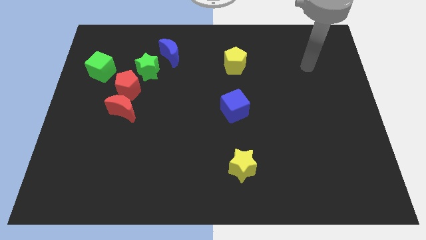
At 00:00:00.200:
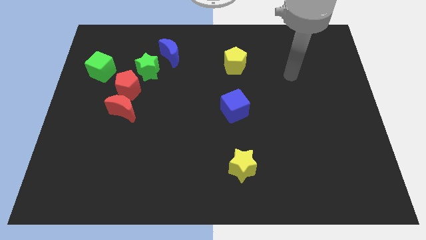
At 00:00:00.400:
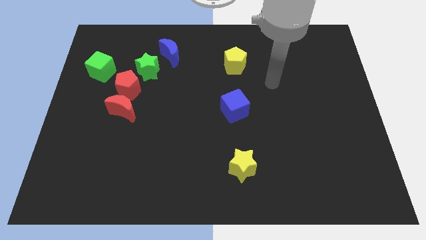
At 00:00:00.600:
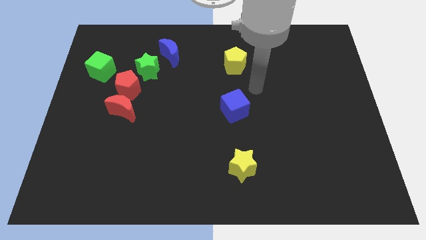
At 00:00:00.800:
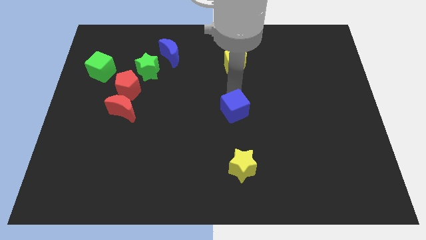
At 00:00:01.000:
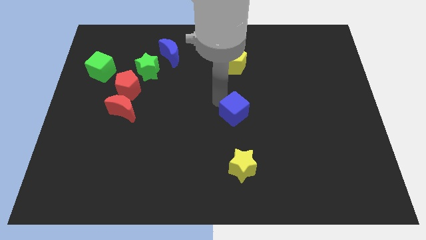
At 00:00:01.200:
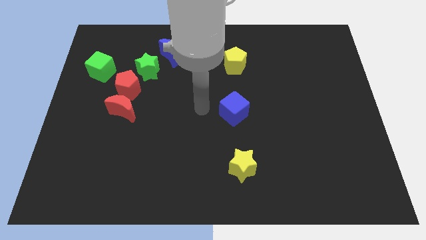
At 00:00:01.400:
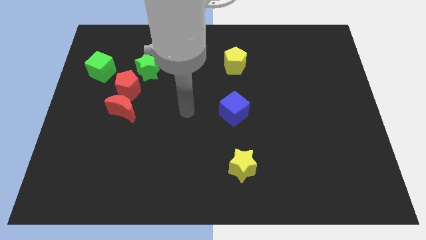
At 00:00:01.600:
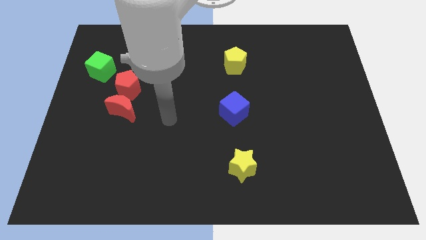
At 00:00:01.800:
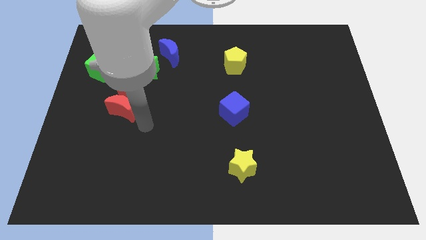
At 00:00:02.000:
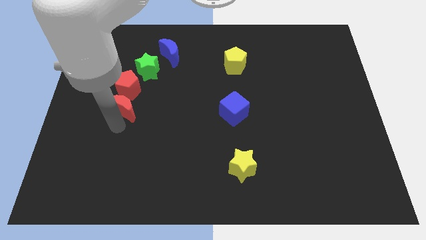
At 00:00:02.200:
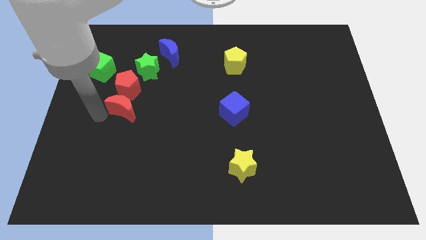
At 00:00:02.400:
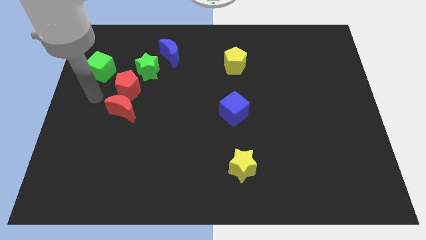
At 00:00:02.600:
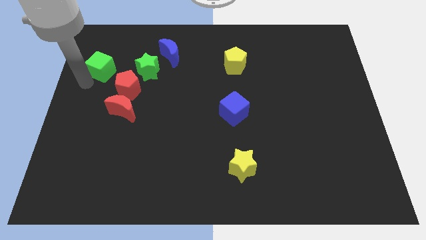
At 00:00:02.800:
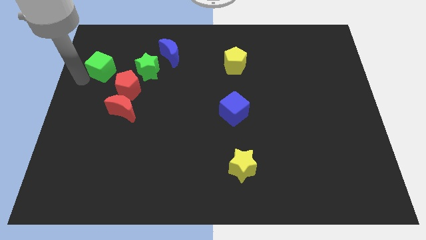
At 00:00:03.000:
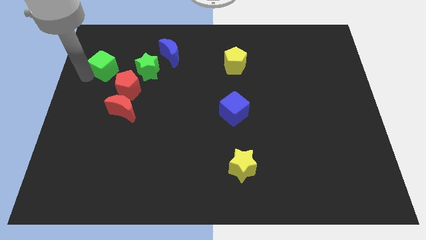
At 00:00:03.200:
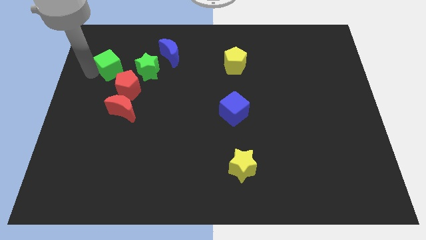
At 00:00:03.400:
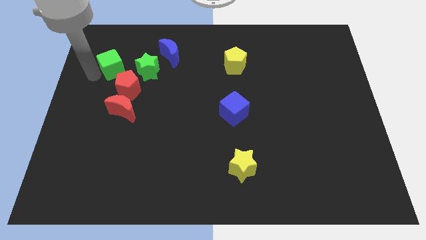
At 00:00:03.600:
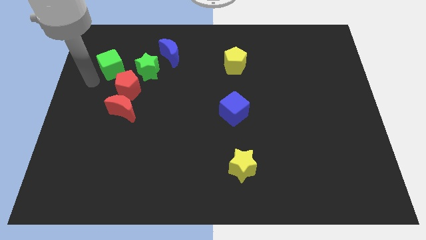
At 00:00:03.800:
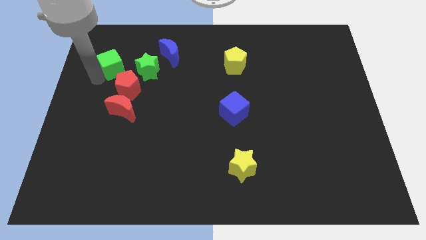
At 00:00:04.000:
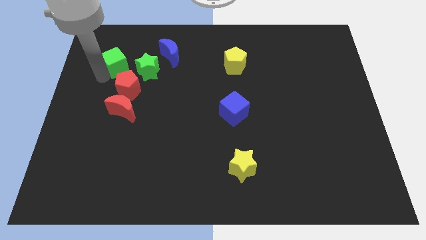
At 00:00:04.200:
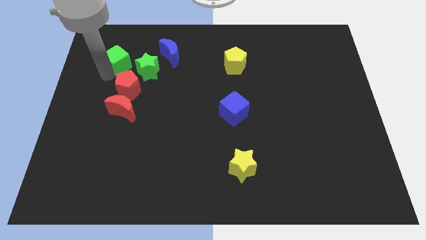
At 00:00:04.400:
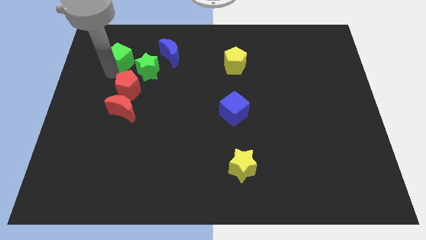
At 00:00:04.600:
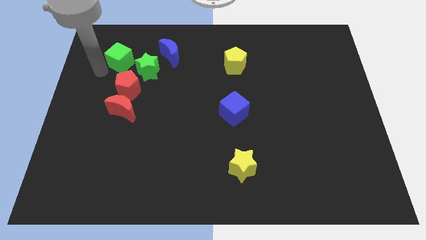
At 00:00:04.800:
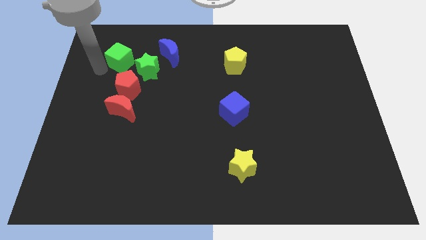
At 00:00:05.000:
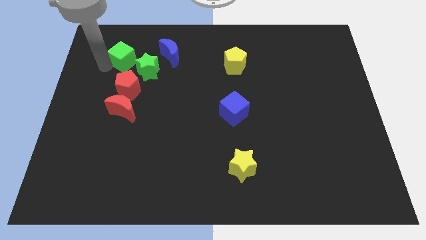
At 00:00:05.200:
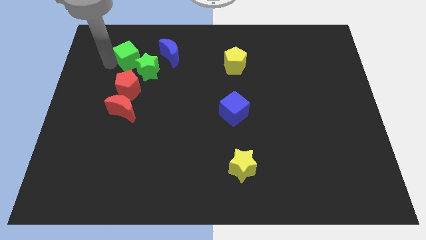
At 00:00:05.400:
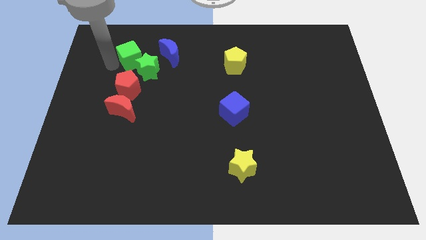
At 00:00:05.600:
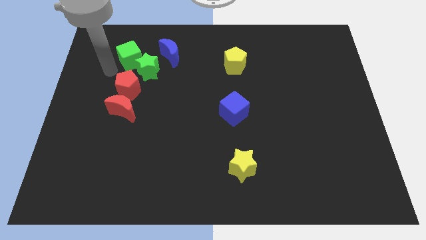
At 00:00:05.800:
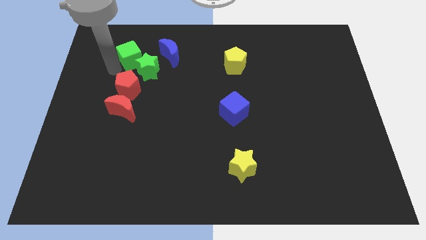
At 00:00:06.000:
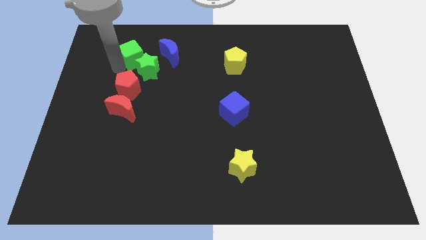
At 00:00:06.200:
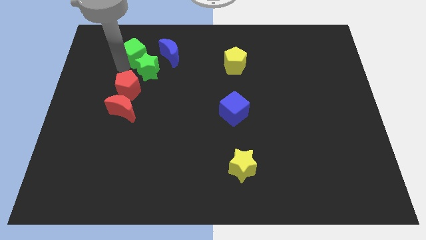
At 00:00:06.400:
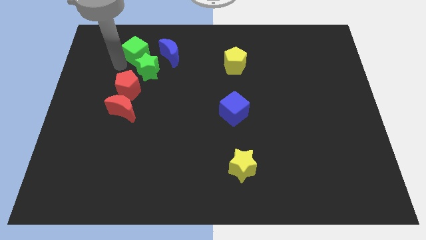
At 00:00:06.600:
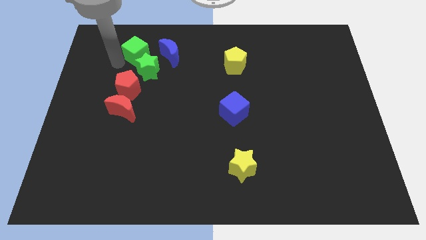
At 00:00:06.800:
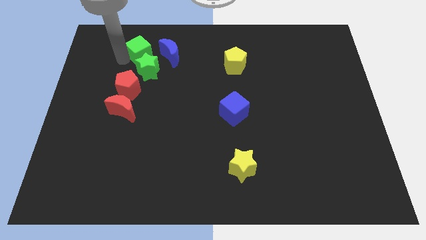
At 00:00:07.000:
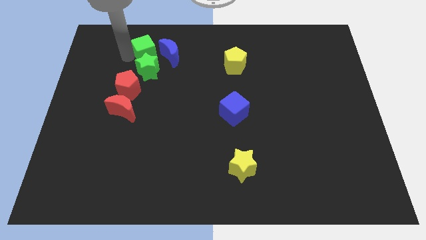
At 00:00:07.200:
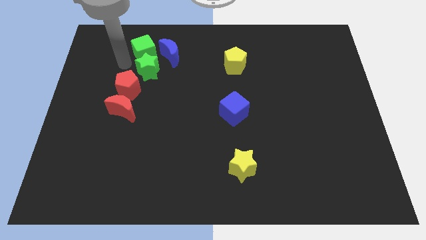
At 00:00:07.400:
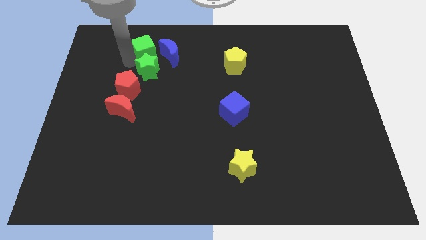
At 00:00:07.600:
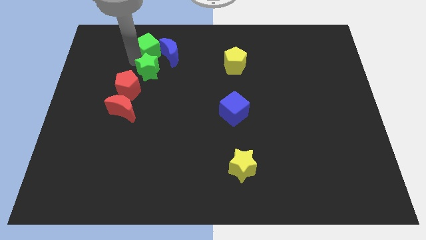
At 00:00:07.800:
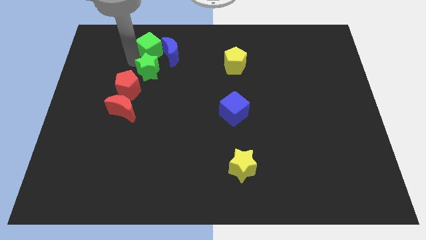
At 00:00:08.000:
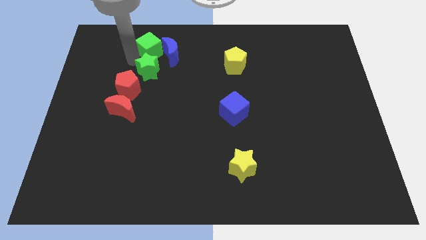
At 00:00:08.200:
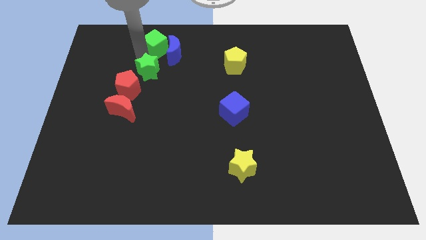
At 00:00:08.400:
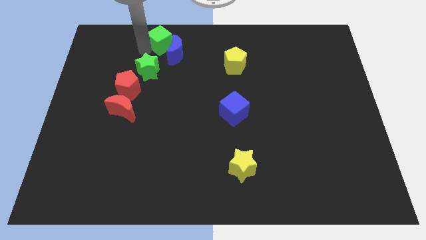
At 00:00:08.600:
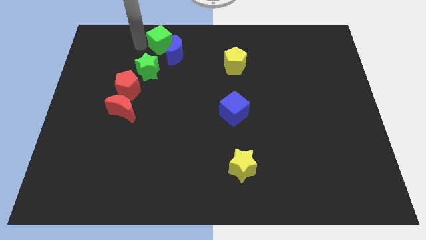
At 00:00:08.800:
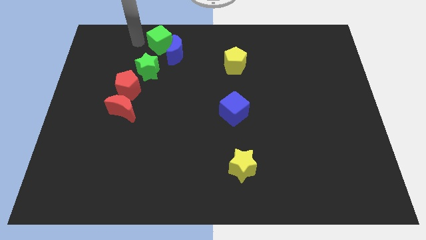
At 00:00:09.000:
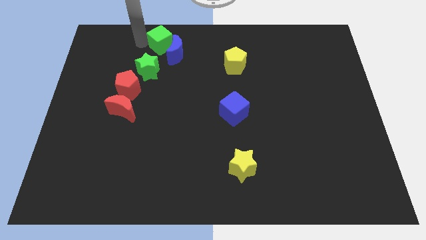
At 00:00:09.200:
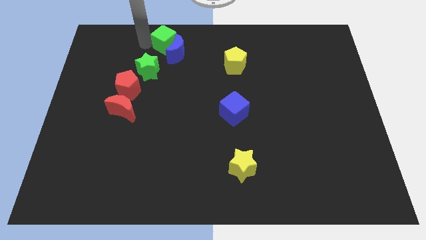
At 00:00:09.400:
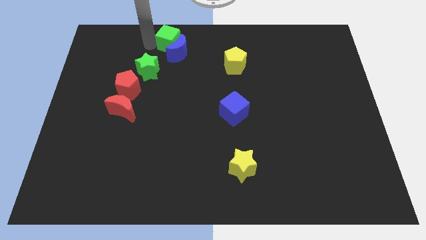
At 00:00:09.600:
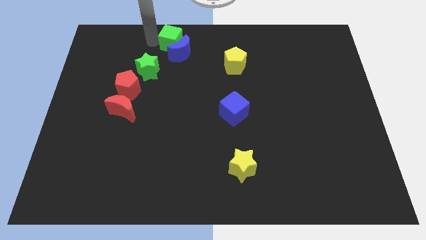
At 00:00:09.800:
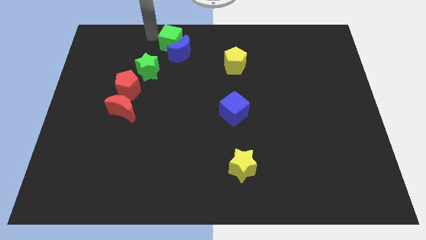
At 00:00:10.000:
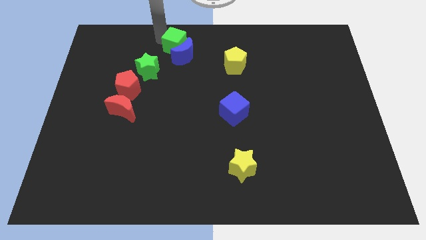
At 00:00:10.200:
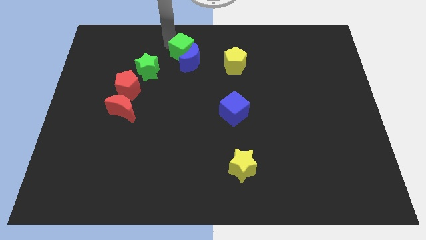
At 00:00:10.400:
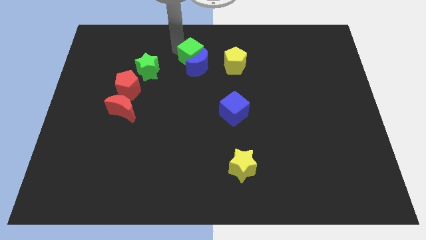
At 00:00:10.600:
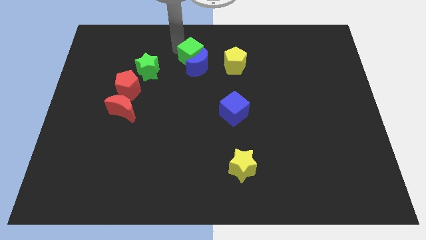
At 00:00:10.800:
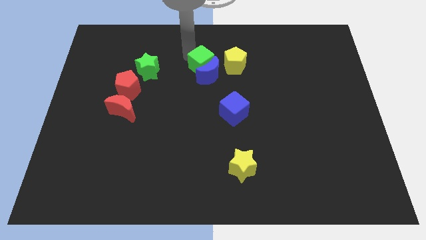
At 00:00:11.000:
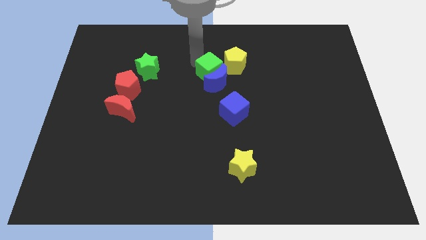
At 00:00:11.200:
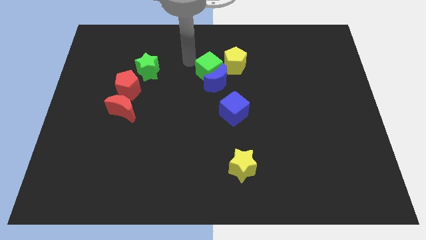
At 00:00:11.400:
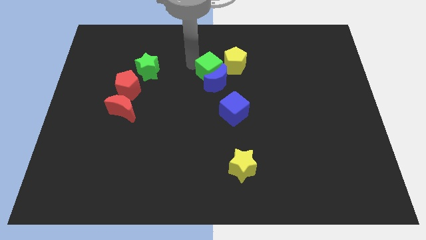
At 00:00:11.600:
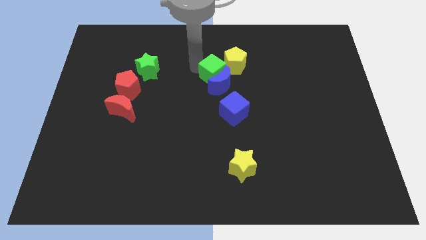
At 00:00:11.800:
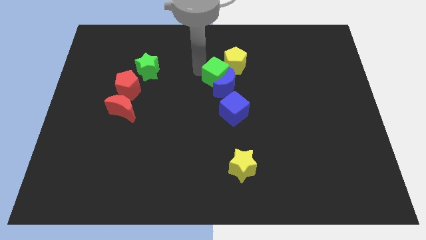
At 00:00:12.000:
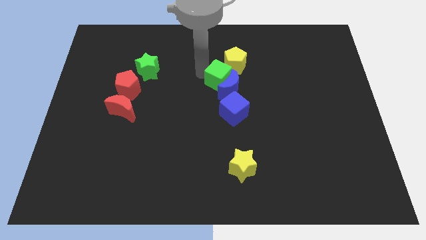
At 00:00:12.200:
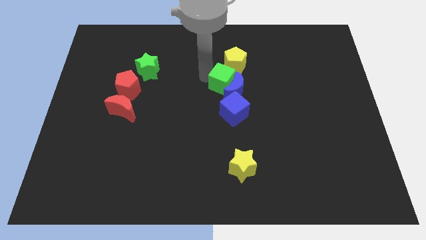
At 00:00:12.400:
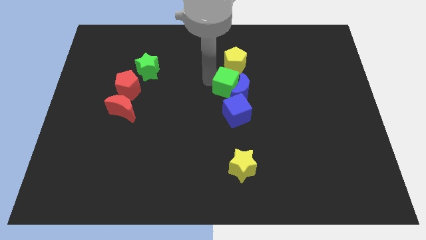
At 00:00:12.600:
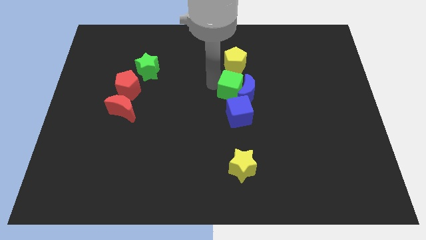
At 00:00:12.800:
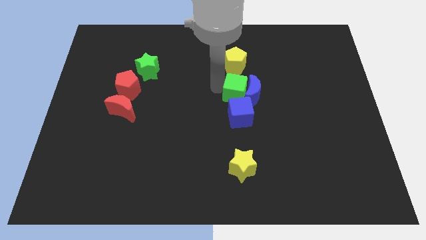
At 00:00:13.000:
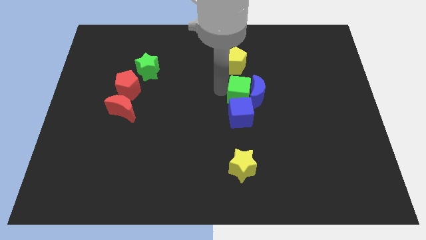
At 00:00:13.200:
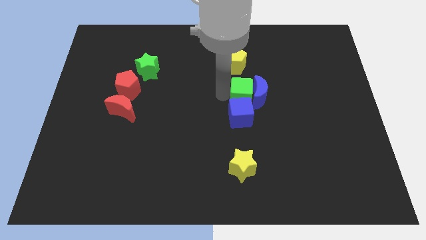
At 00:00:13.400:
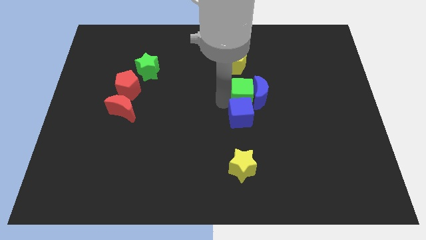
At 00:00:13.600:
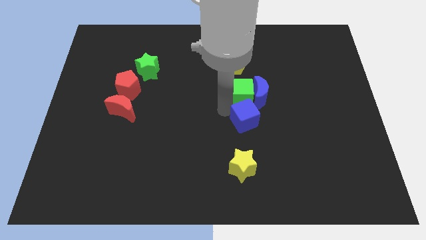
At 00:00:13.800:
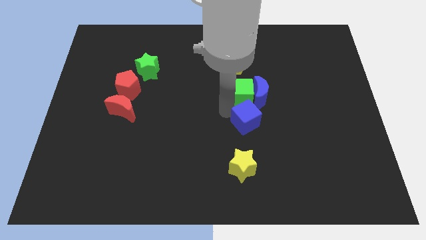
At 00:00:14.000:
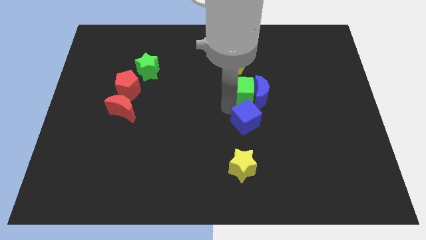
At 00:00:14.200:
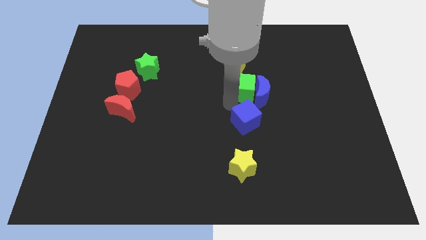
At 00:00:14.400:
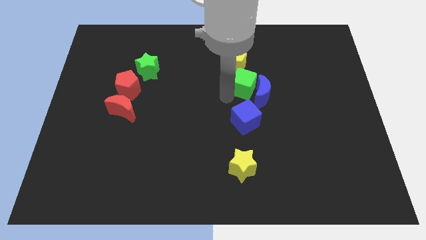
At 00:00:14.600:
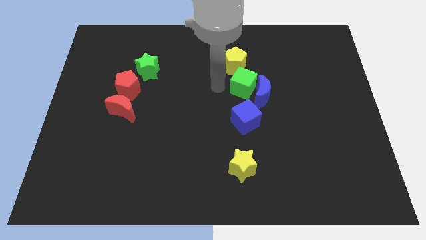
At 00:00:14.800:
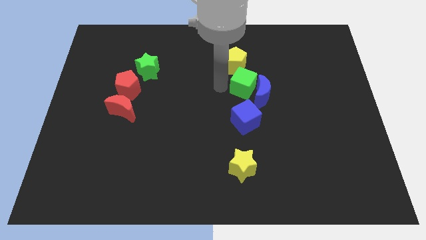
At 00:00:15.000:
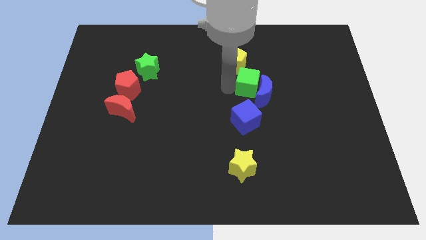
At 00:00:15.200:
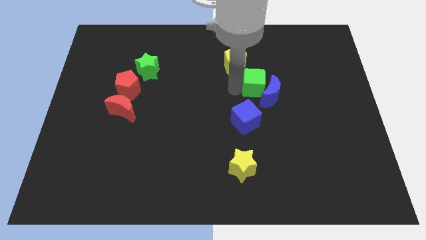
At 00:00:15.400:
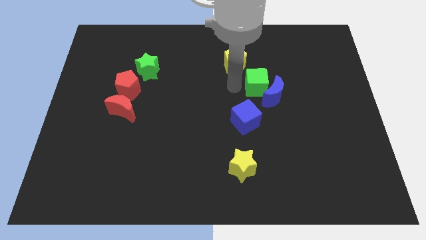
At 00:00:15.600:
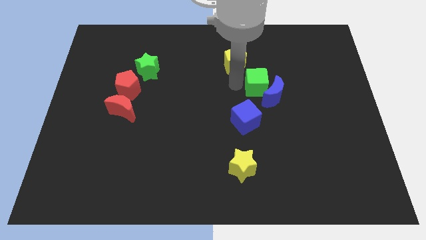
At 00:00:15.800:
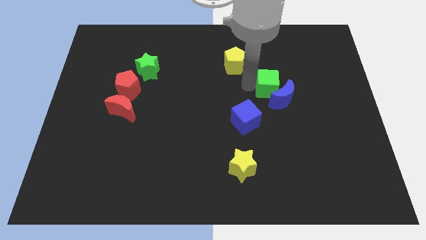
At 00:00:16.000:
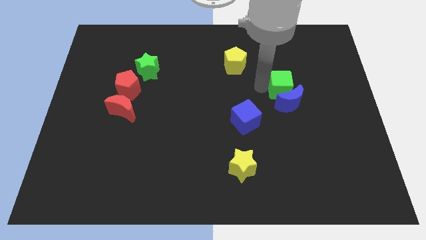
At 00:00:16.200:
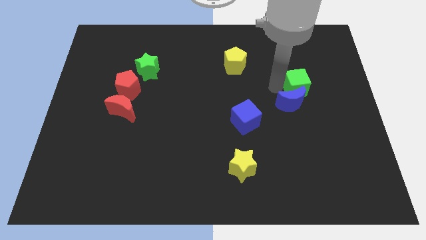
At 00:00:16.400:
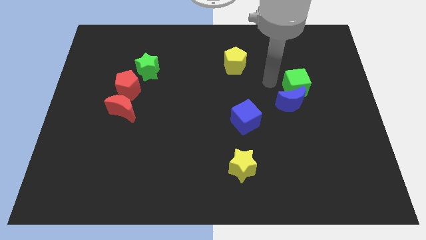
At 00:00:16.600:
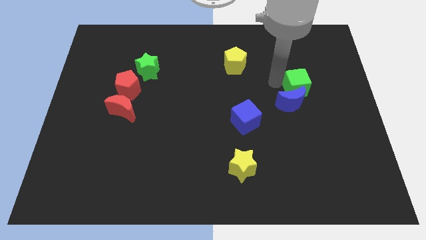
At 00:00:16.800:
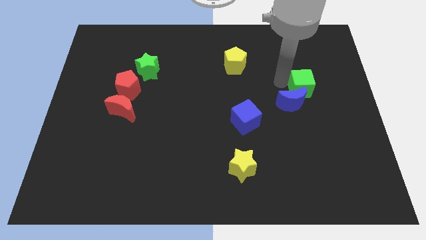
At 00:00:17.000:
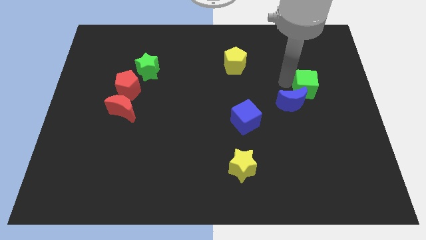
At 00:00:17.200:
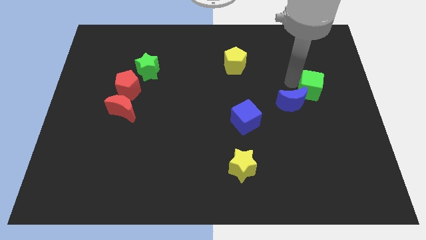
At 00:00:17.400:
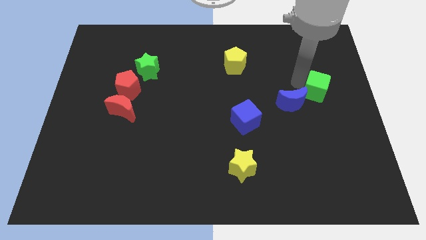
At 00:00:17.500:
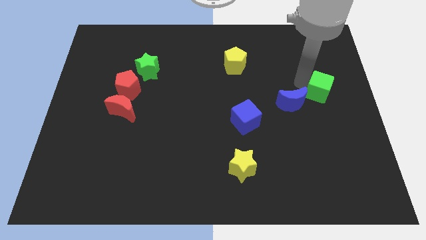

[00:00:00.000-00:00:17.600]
slide the green cube to the right side
